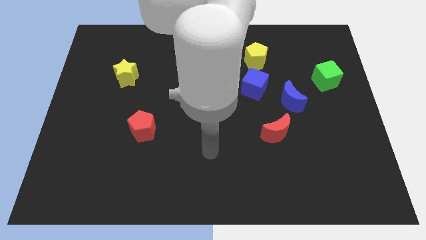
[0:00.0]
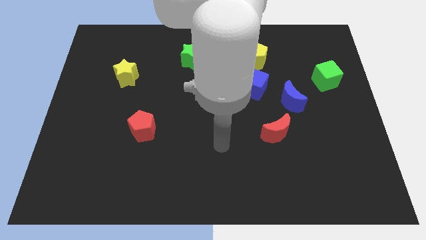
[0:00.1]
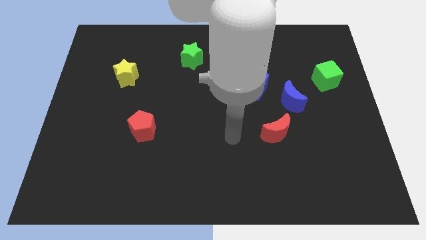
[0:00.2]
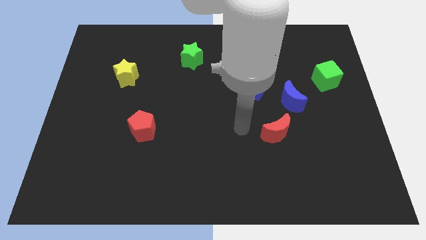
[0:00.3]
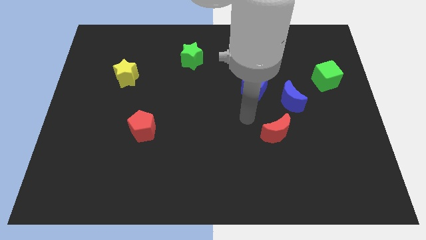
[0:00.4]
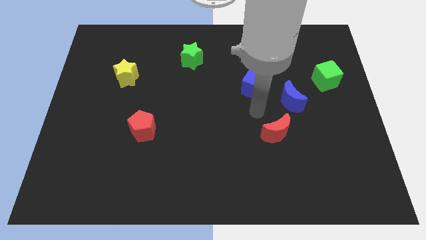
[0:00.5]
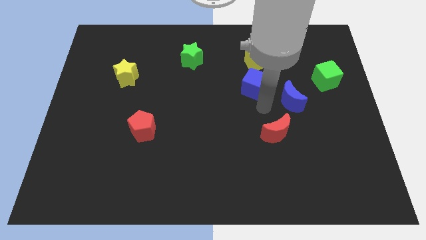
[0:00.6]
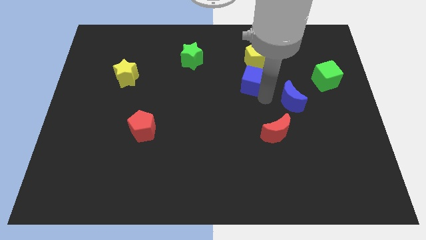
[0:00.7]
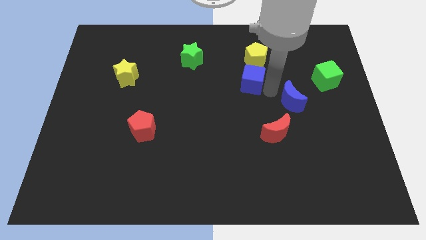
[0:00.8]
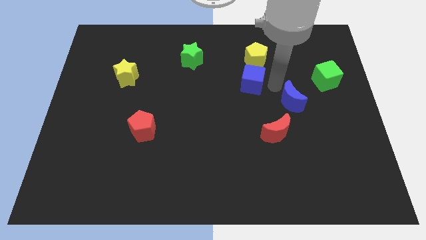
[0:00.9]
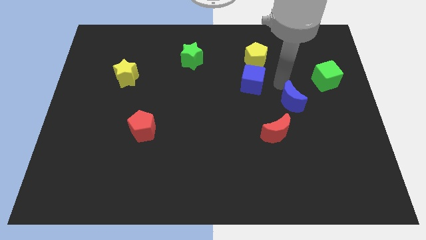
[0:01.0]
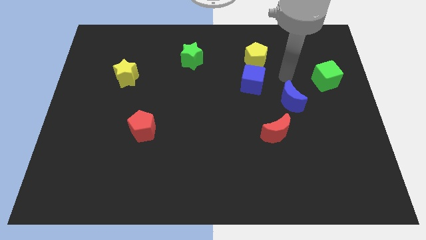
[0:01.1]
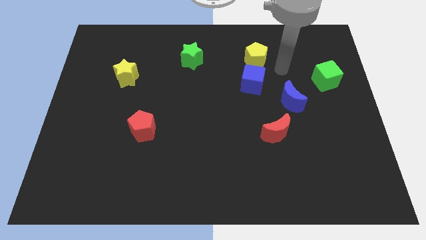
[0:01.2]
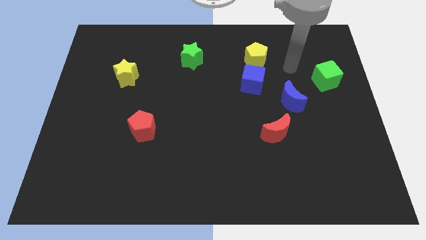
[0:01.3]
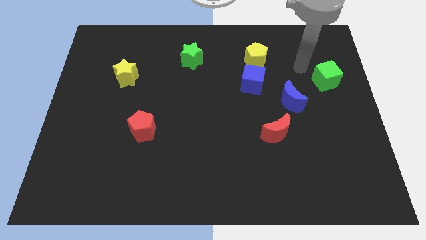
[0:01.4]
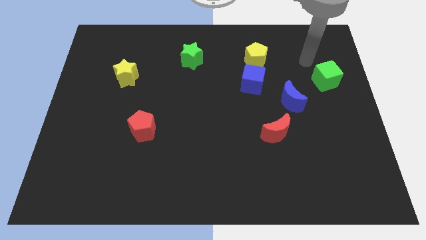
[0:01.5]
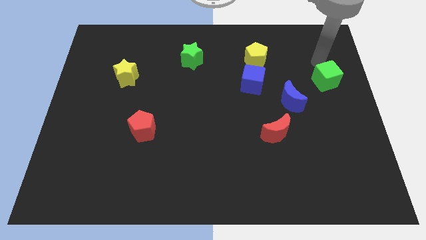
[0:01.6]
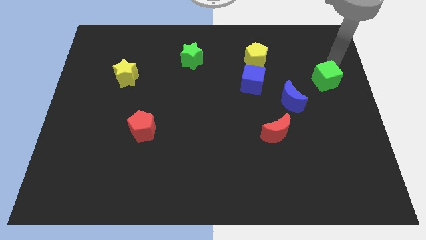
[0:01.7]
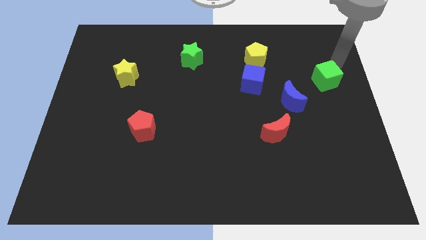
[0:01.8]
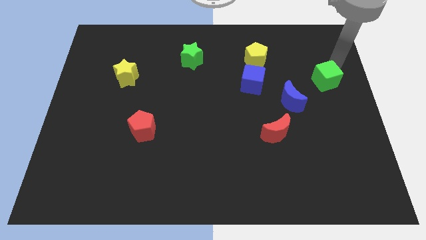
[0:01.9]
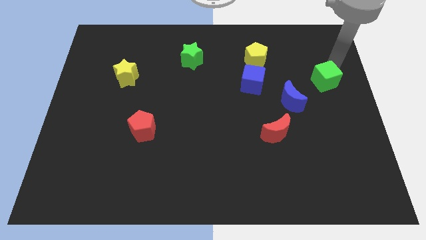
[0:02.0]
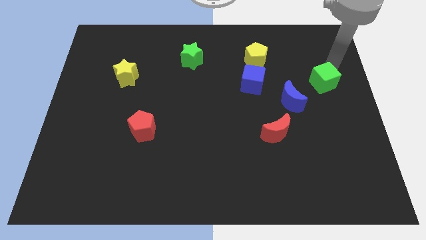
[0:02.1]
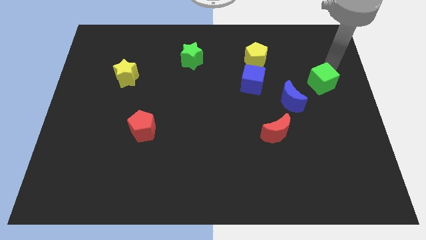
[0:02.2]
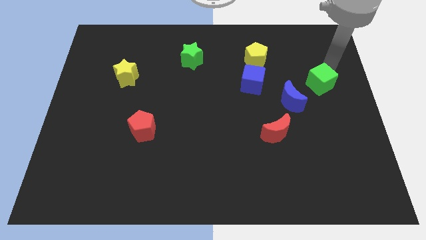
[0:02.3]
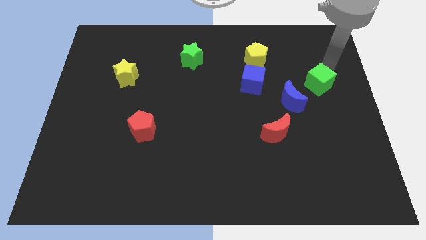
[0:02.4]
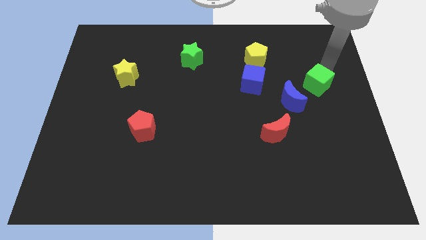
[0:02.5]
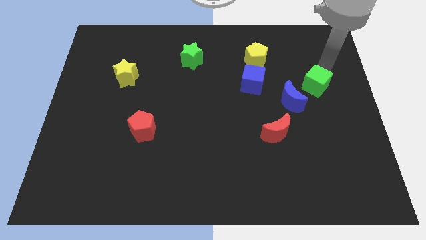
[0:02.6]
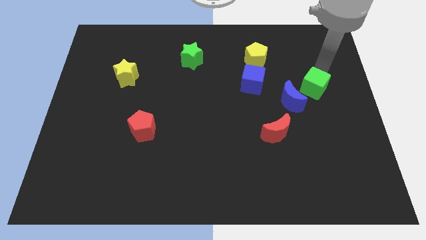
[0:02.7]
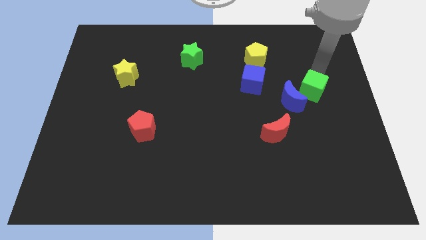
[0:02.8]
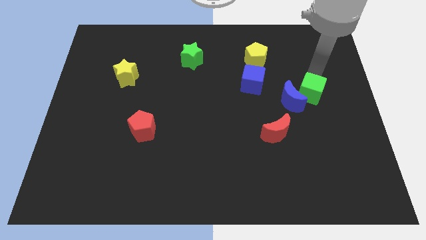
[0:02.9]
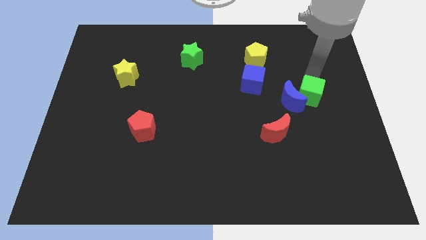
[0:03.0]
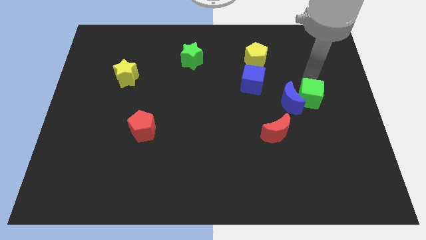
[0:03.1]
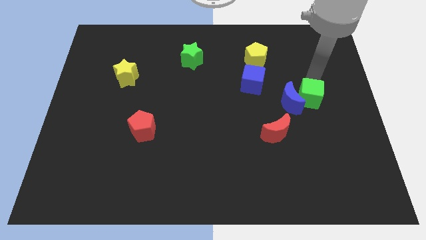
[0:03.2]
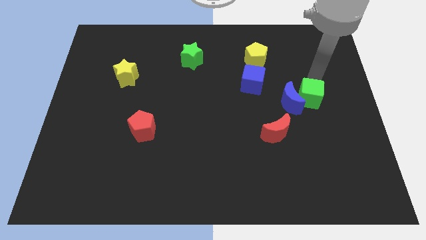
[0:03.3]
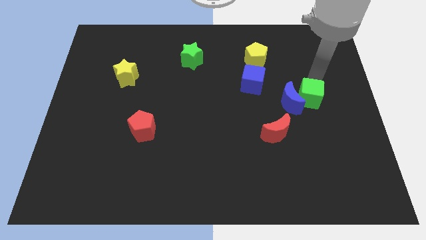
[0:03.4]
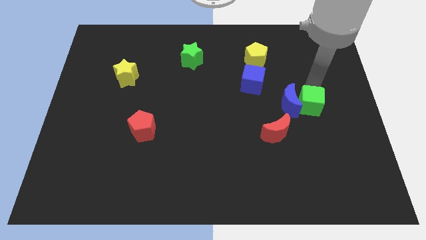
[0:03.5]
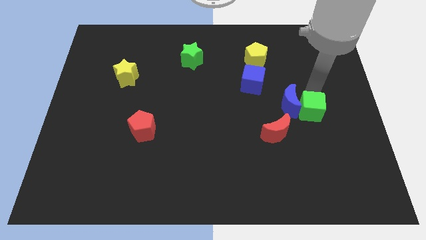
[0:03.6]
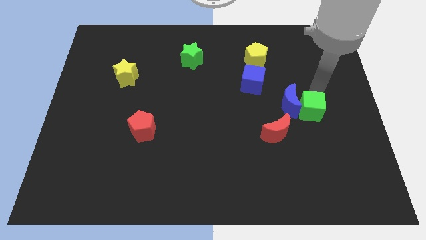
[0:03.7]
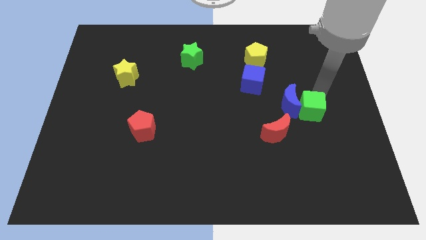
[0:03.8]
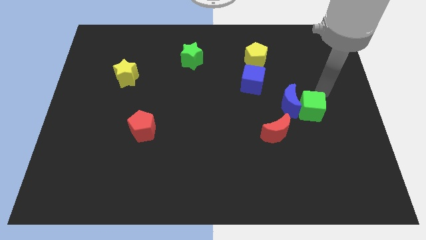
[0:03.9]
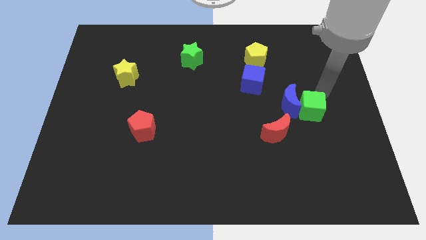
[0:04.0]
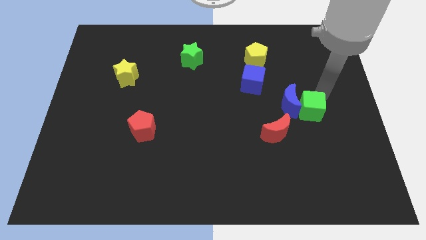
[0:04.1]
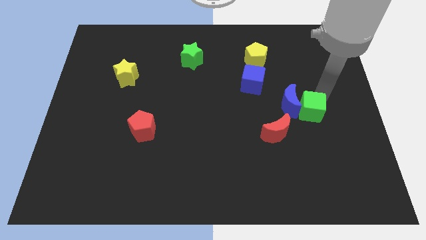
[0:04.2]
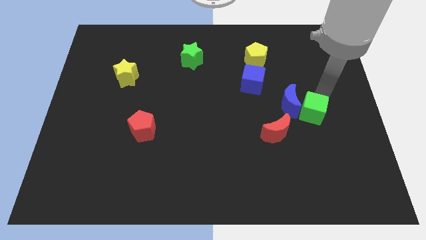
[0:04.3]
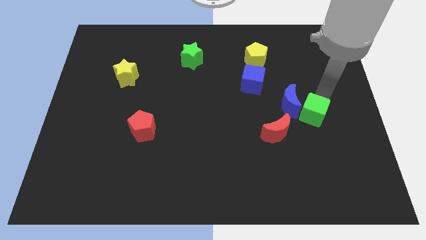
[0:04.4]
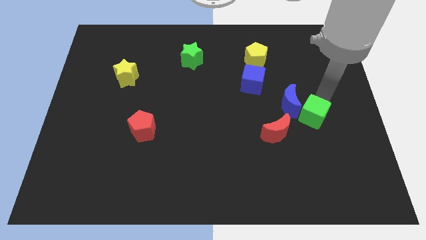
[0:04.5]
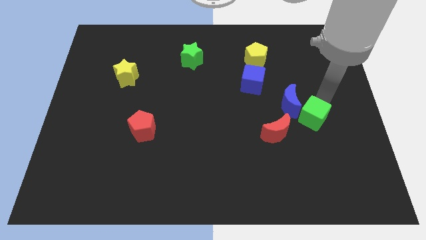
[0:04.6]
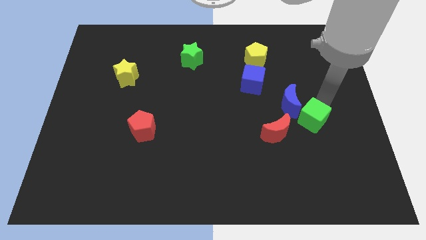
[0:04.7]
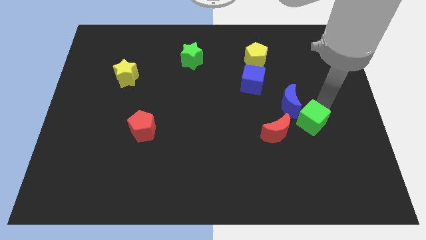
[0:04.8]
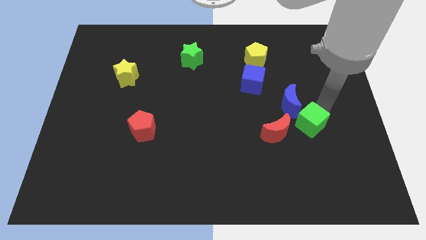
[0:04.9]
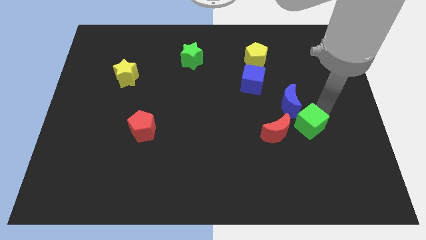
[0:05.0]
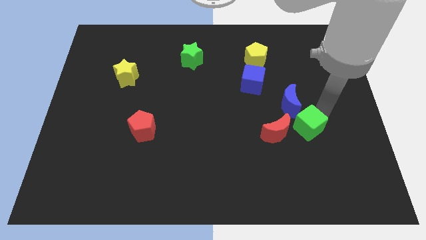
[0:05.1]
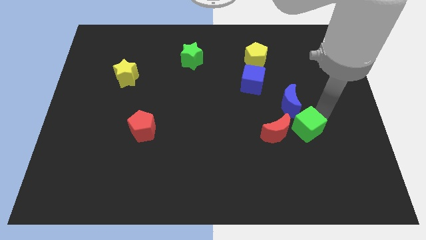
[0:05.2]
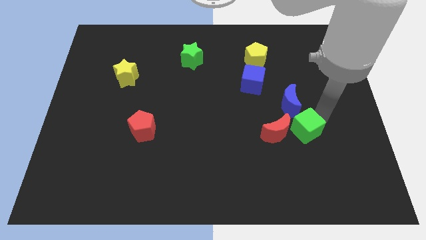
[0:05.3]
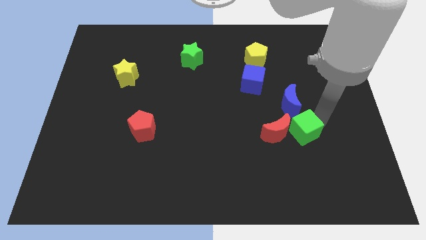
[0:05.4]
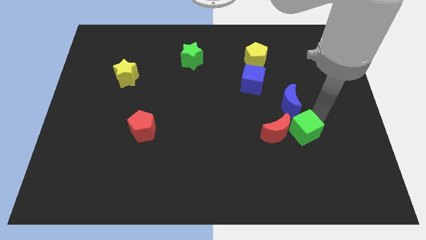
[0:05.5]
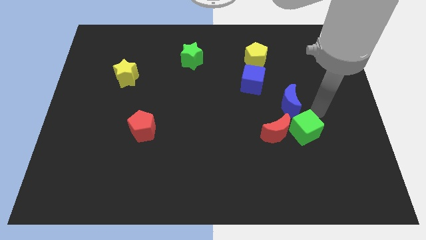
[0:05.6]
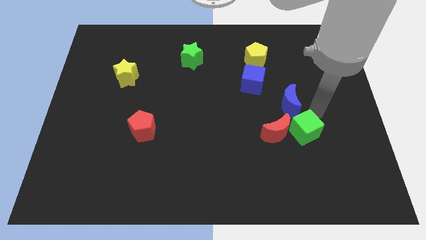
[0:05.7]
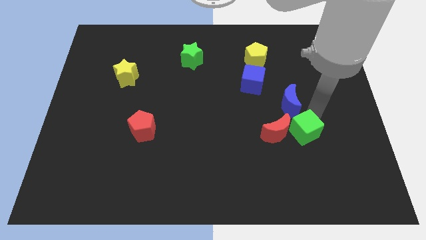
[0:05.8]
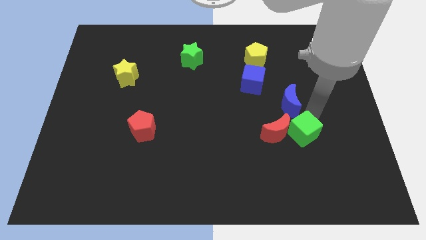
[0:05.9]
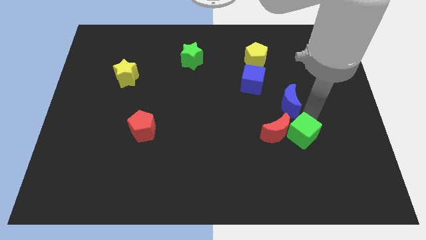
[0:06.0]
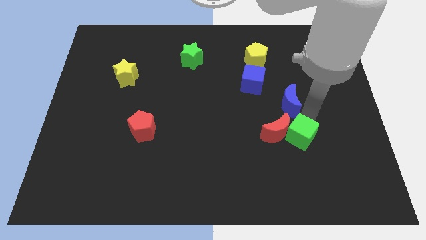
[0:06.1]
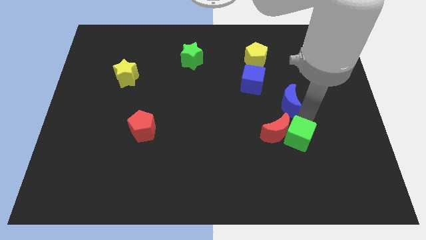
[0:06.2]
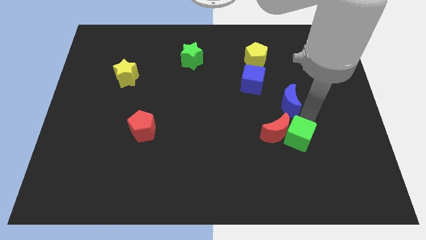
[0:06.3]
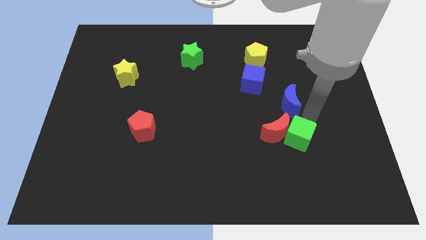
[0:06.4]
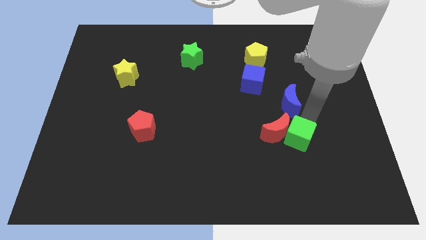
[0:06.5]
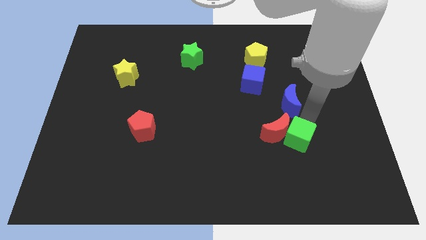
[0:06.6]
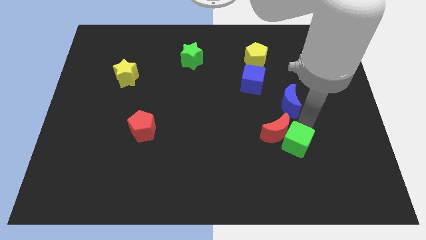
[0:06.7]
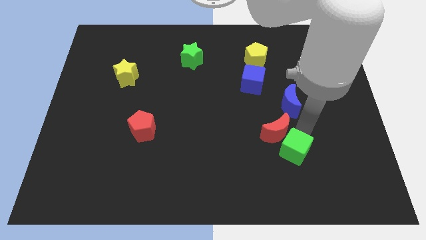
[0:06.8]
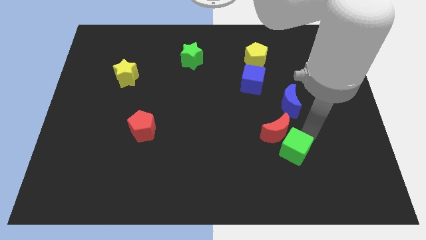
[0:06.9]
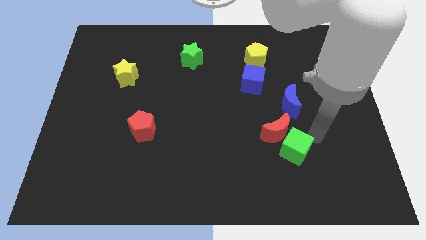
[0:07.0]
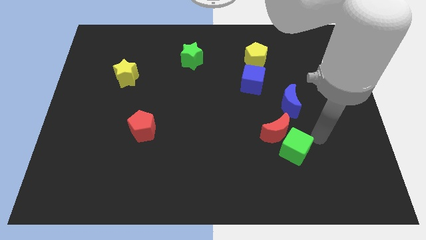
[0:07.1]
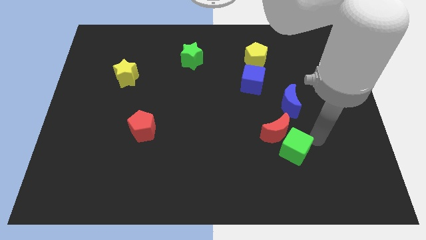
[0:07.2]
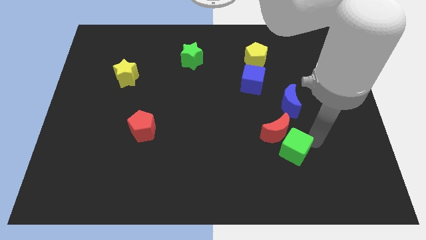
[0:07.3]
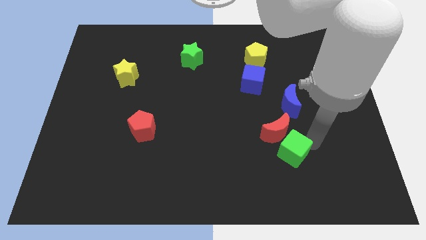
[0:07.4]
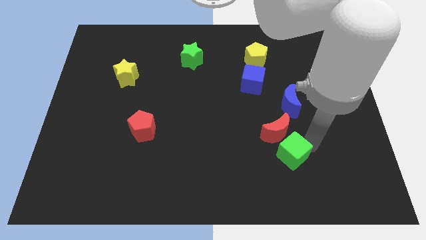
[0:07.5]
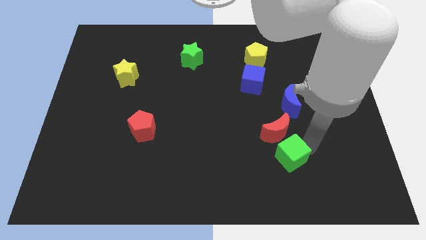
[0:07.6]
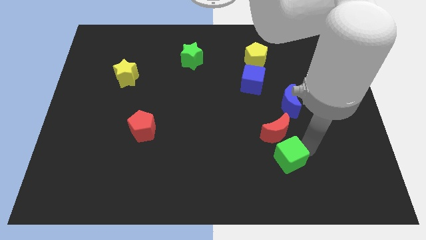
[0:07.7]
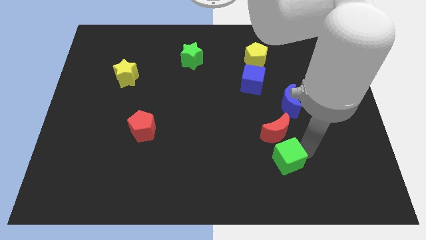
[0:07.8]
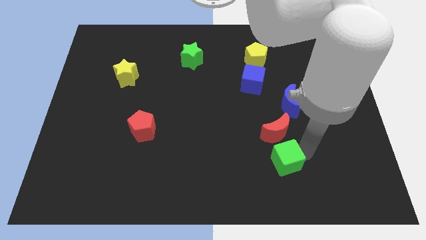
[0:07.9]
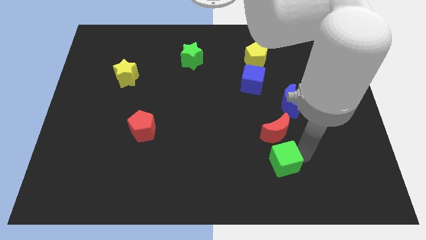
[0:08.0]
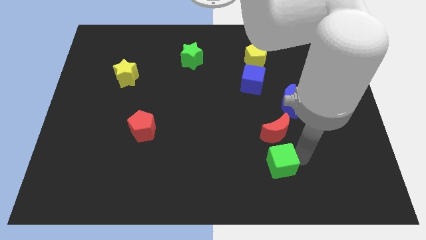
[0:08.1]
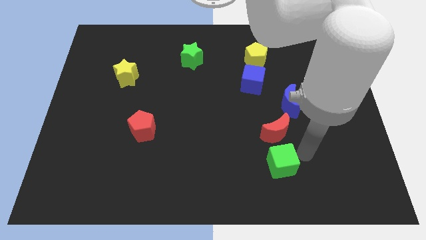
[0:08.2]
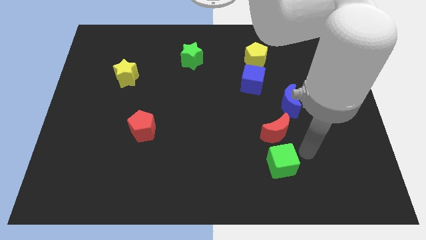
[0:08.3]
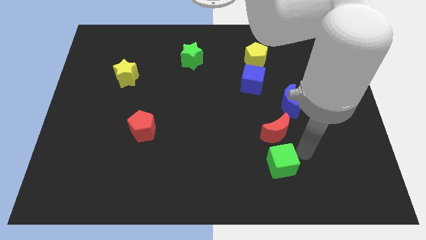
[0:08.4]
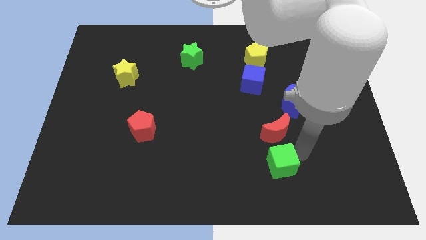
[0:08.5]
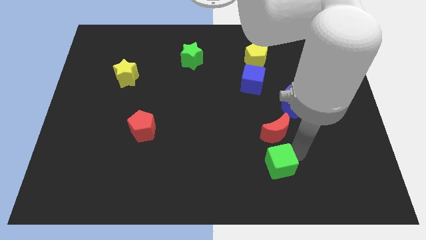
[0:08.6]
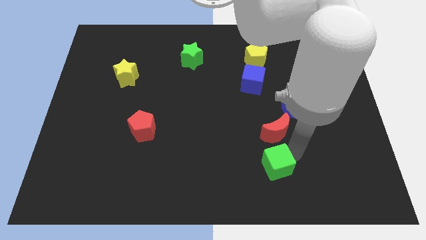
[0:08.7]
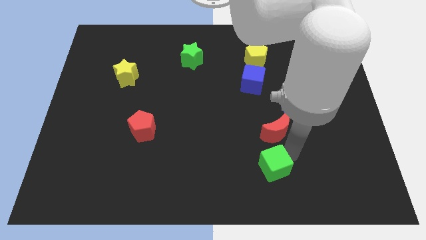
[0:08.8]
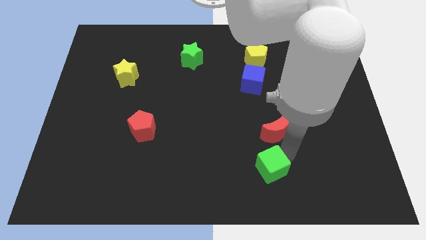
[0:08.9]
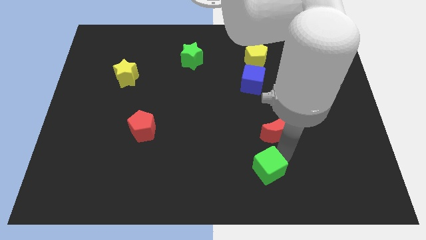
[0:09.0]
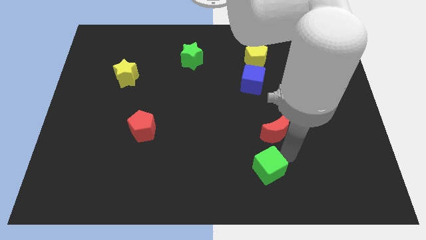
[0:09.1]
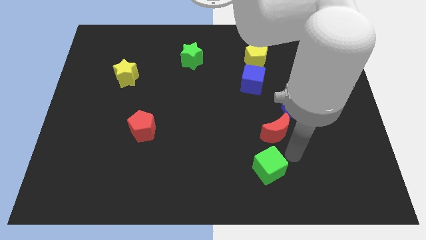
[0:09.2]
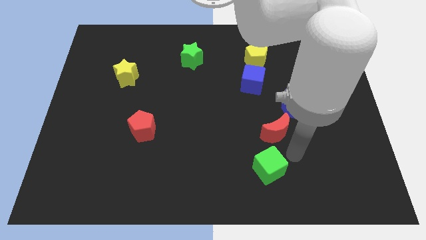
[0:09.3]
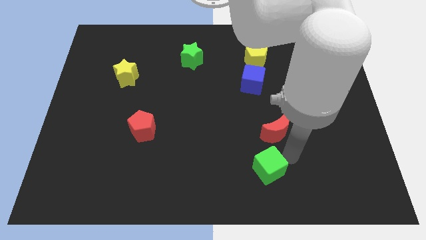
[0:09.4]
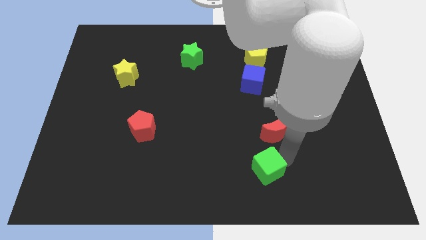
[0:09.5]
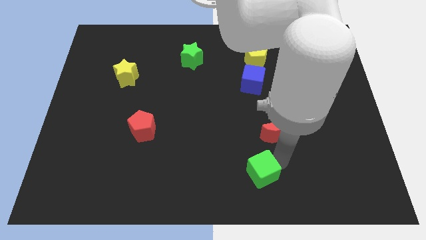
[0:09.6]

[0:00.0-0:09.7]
push the green cube to the bottom side
